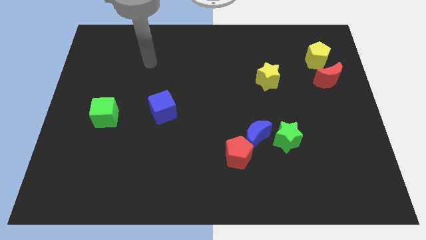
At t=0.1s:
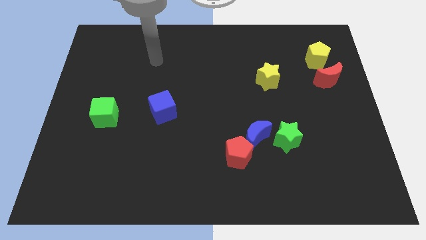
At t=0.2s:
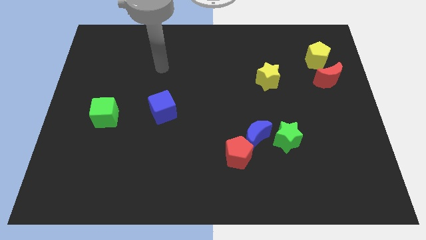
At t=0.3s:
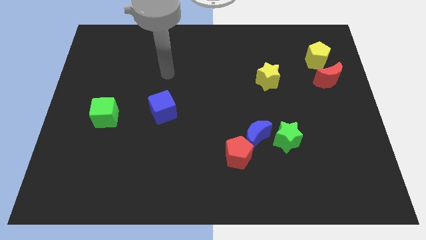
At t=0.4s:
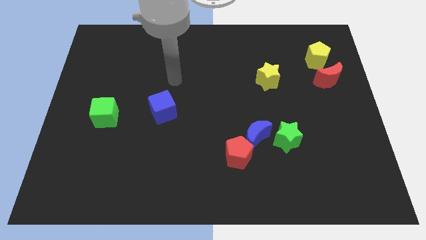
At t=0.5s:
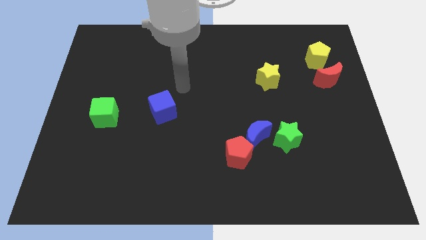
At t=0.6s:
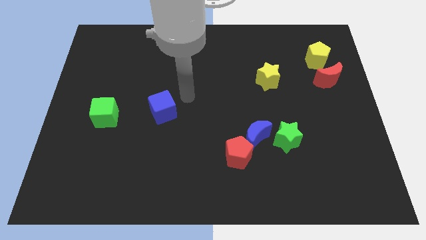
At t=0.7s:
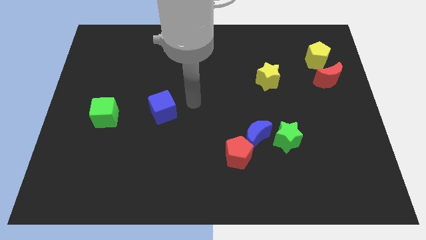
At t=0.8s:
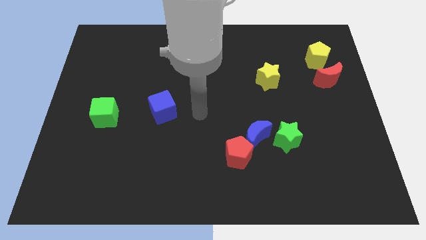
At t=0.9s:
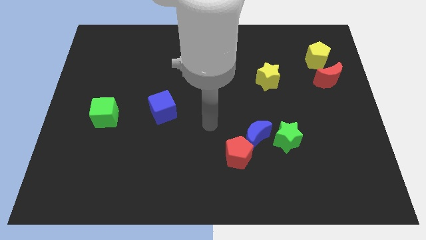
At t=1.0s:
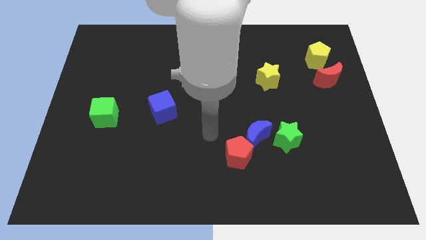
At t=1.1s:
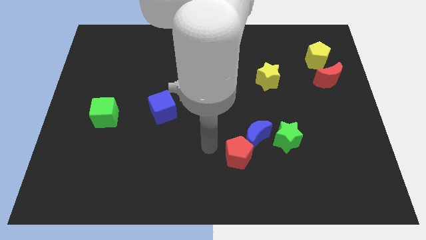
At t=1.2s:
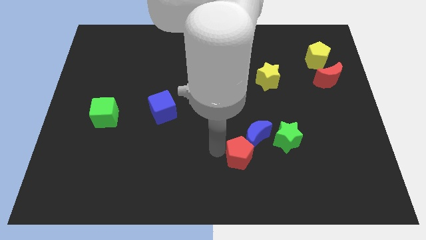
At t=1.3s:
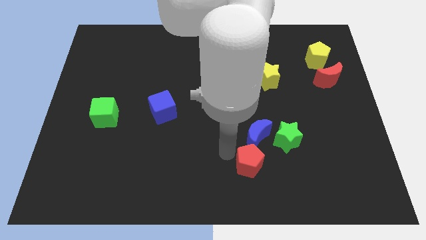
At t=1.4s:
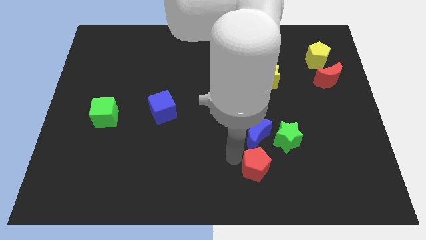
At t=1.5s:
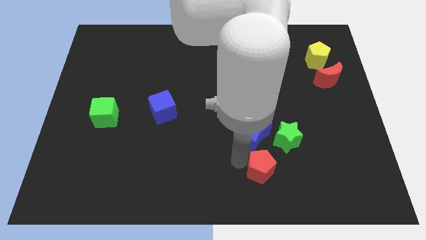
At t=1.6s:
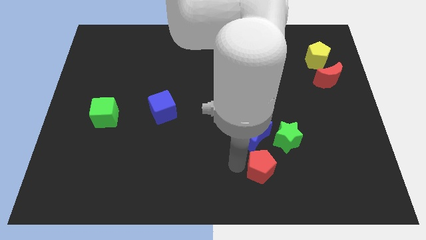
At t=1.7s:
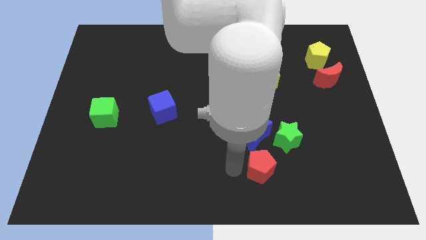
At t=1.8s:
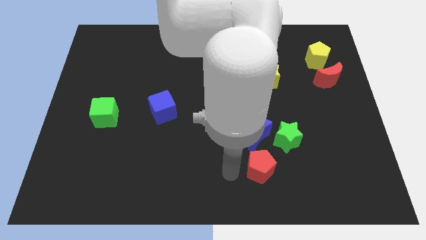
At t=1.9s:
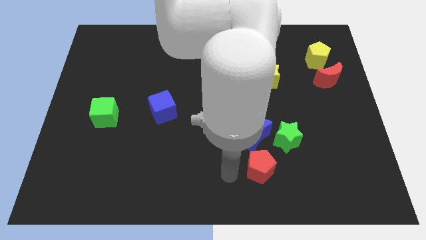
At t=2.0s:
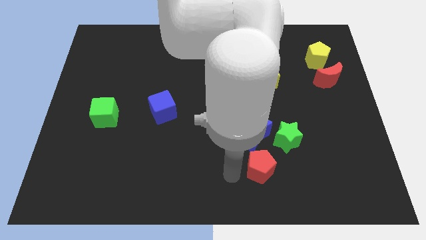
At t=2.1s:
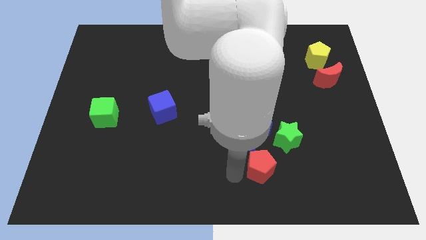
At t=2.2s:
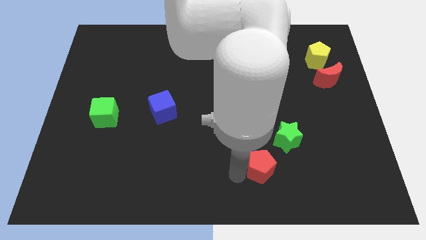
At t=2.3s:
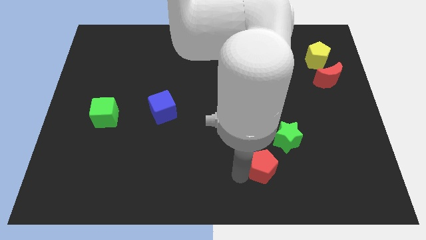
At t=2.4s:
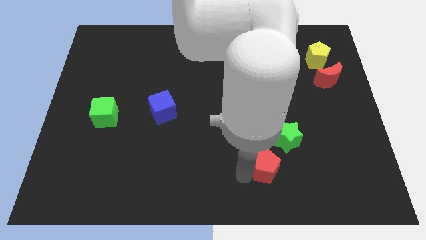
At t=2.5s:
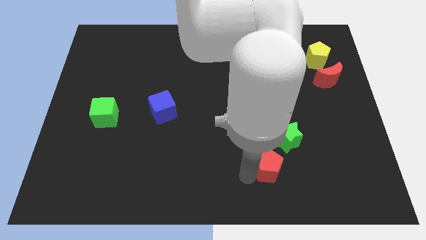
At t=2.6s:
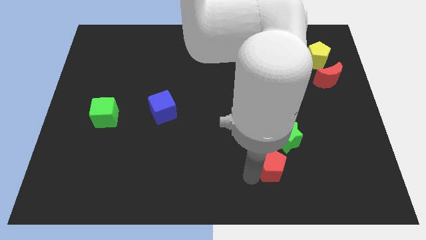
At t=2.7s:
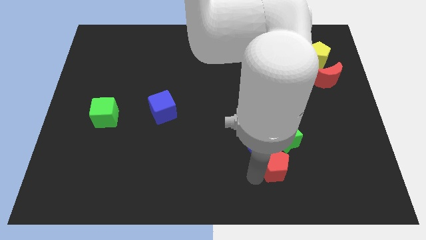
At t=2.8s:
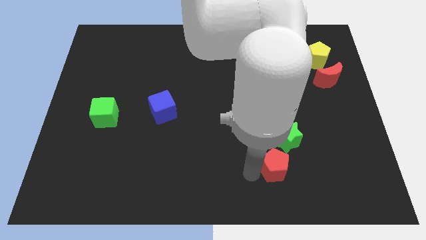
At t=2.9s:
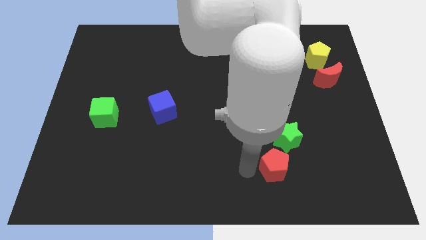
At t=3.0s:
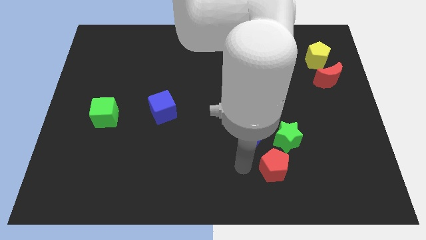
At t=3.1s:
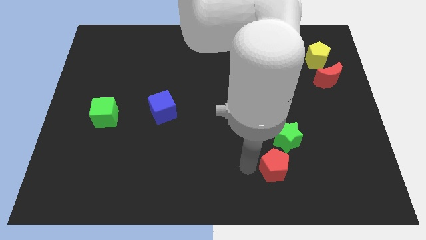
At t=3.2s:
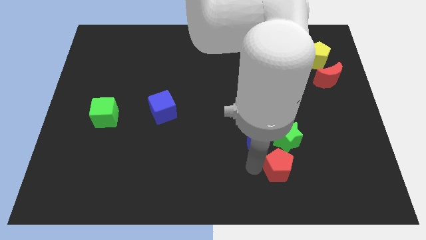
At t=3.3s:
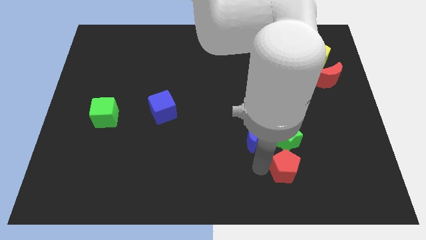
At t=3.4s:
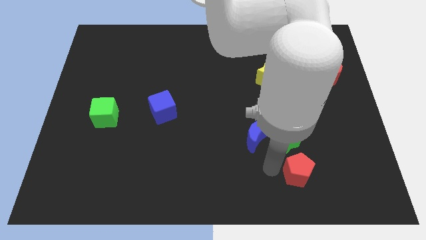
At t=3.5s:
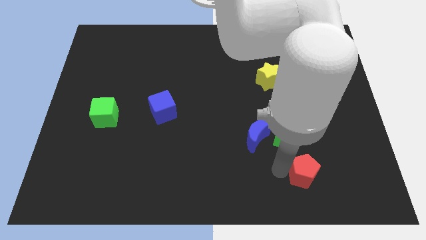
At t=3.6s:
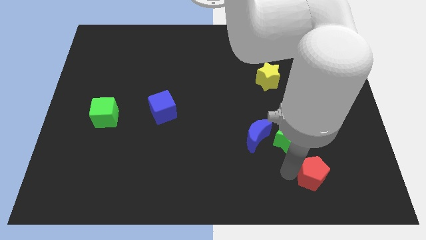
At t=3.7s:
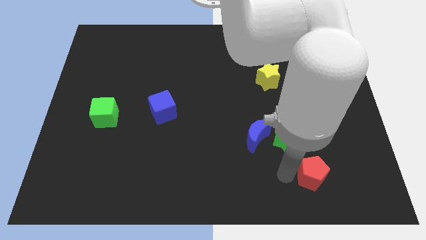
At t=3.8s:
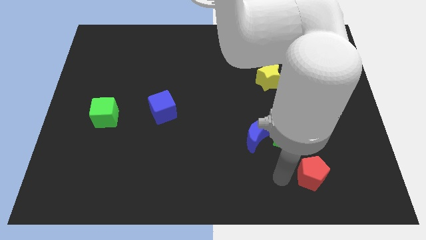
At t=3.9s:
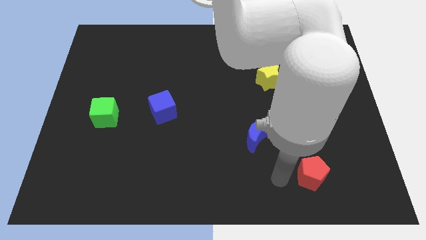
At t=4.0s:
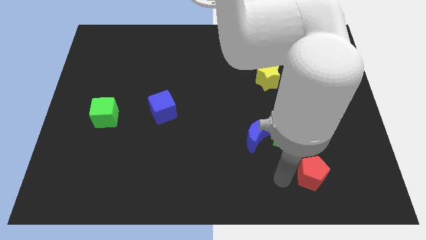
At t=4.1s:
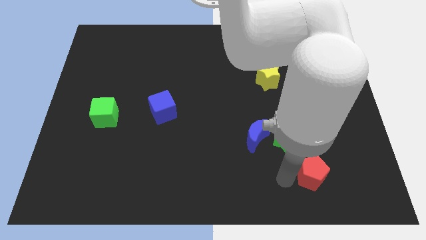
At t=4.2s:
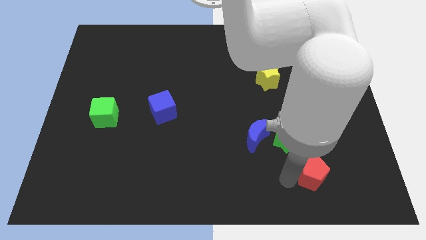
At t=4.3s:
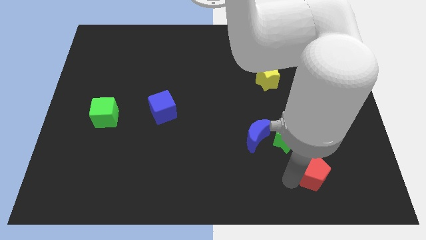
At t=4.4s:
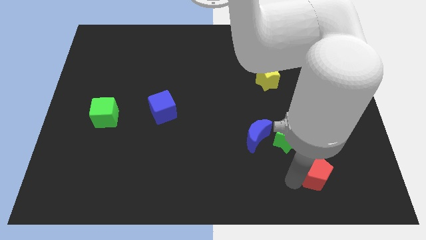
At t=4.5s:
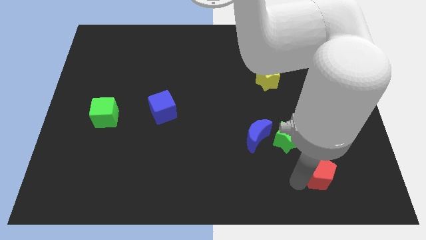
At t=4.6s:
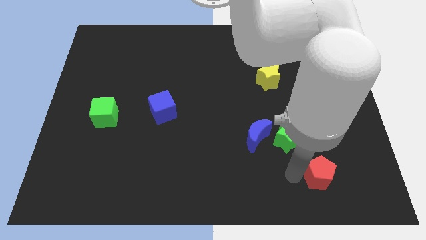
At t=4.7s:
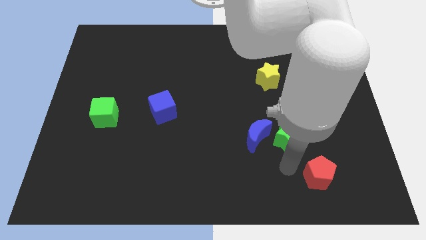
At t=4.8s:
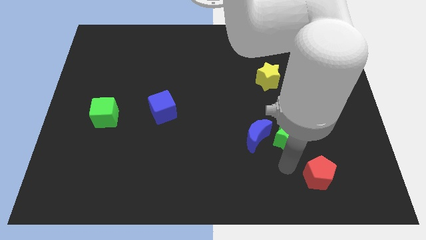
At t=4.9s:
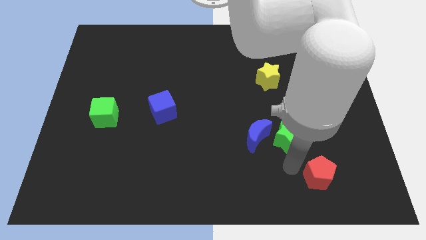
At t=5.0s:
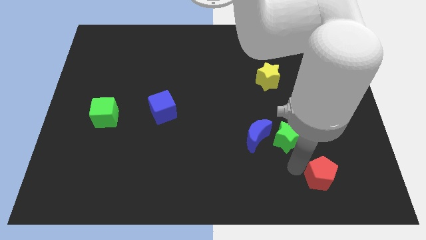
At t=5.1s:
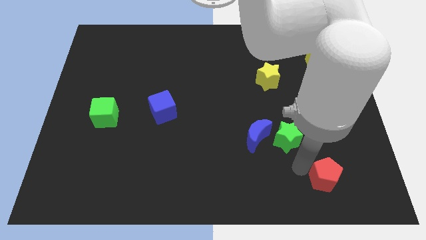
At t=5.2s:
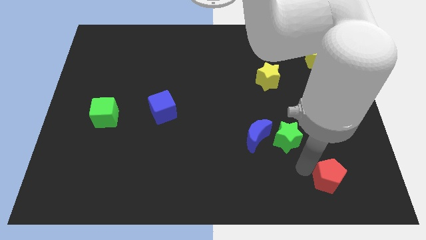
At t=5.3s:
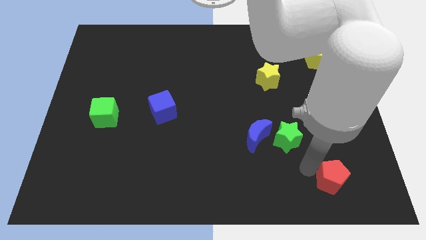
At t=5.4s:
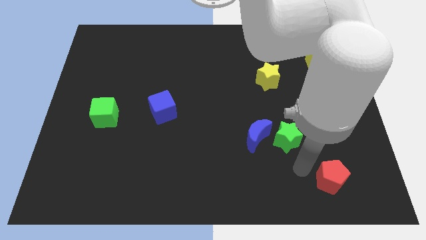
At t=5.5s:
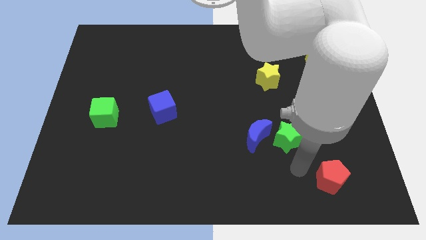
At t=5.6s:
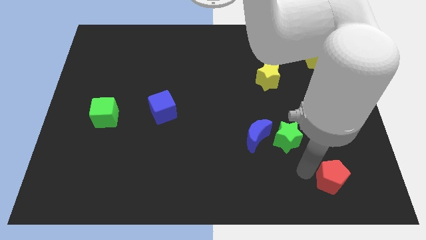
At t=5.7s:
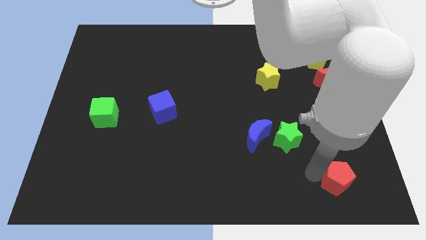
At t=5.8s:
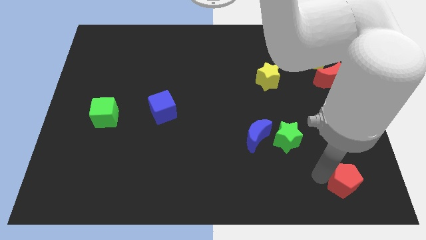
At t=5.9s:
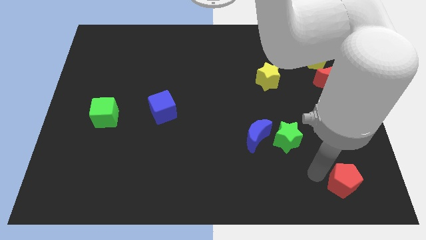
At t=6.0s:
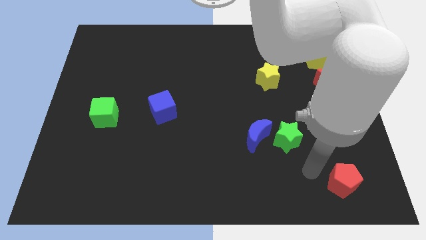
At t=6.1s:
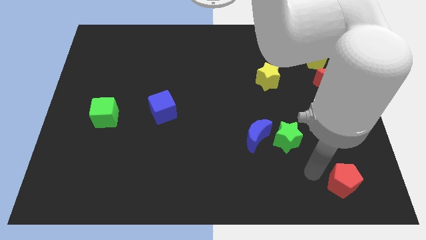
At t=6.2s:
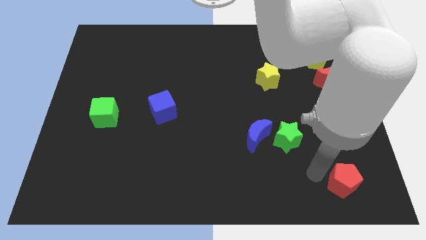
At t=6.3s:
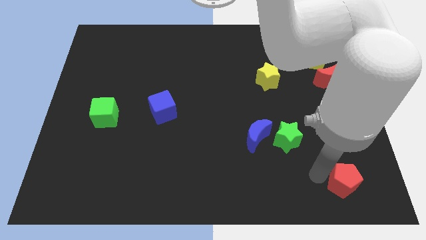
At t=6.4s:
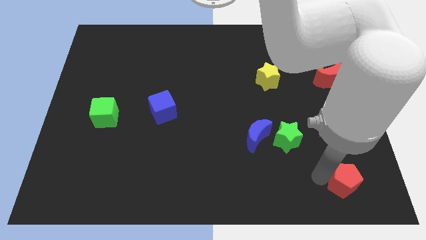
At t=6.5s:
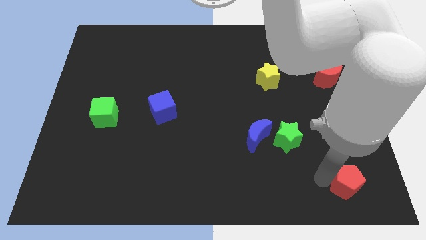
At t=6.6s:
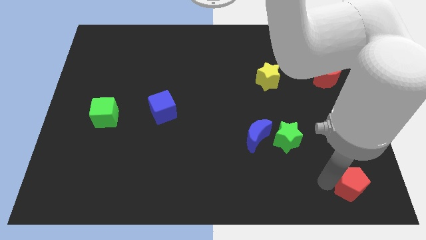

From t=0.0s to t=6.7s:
put the red pentagon to the bottom right corner
